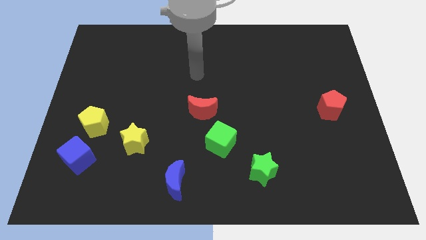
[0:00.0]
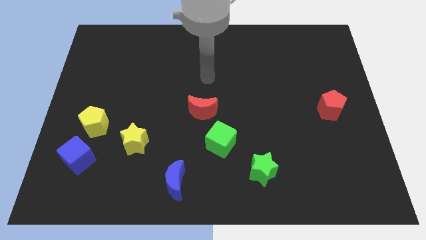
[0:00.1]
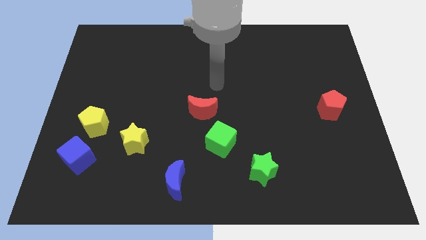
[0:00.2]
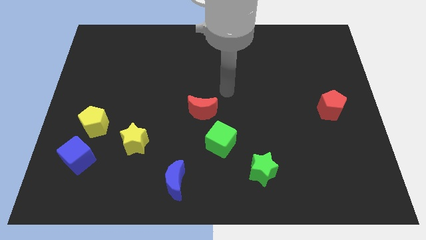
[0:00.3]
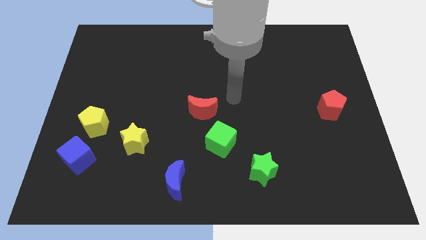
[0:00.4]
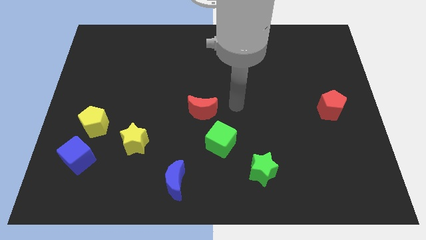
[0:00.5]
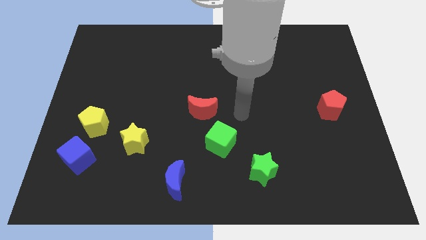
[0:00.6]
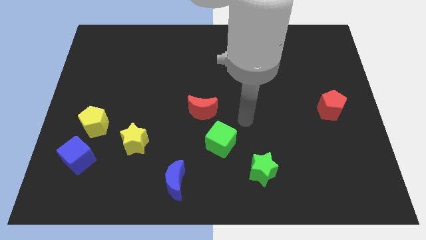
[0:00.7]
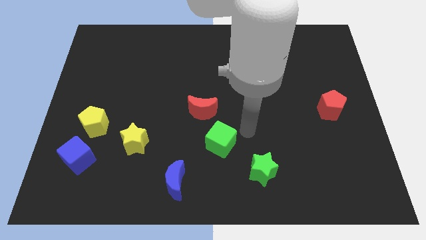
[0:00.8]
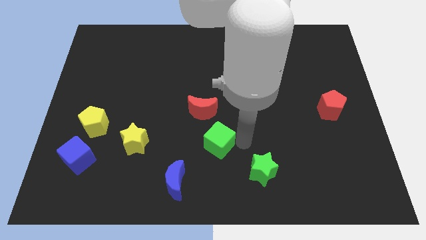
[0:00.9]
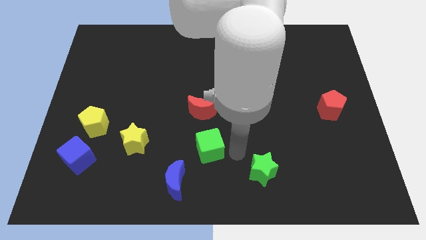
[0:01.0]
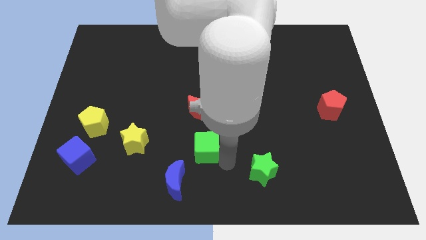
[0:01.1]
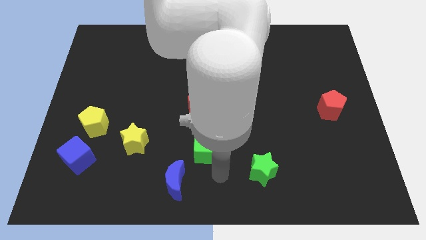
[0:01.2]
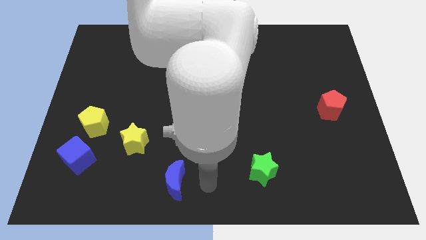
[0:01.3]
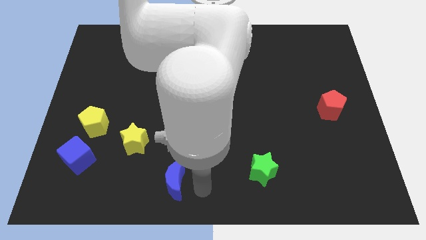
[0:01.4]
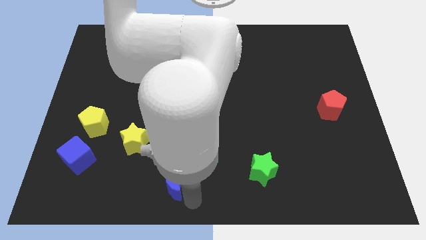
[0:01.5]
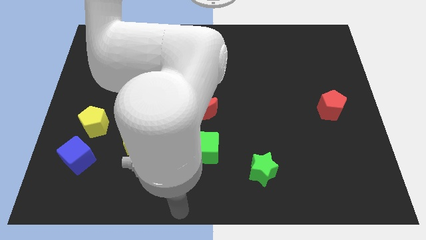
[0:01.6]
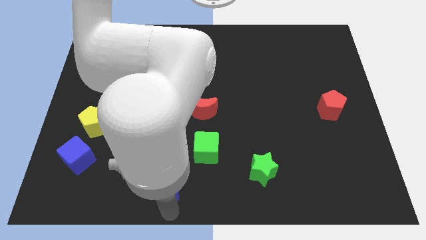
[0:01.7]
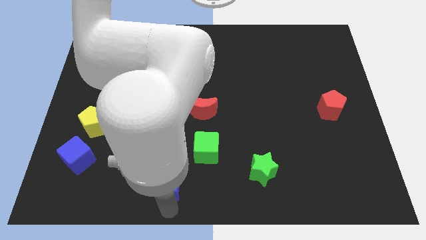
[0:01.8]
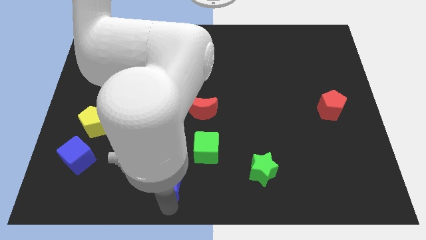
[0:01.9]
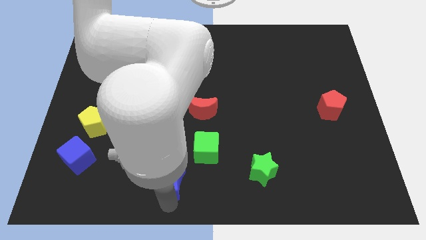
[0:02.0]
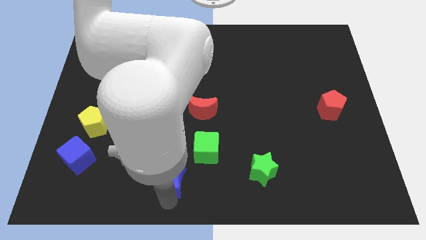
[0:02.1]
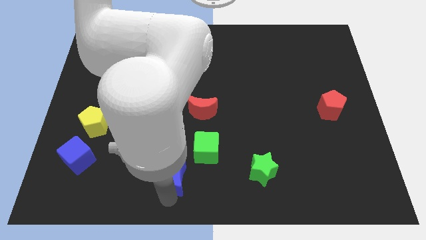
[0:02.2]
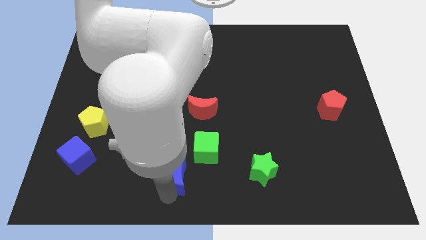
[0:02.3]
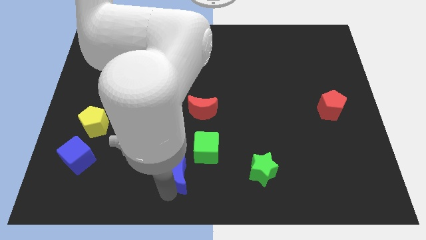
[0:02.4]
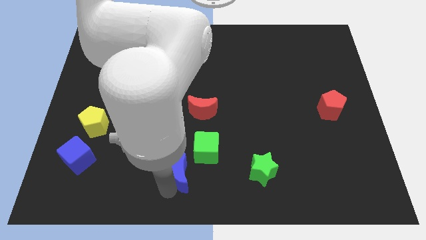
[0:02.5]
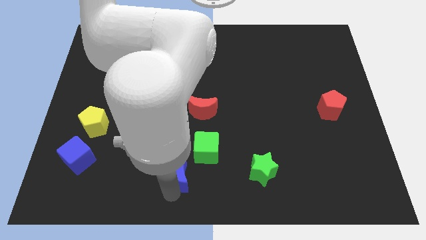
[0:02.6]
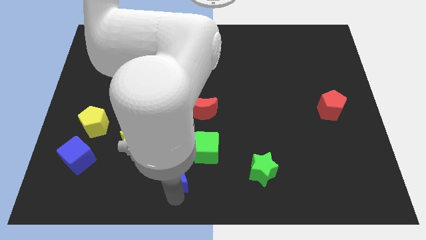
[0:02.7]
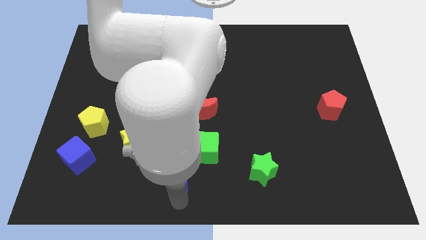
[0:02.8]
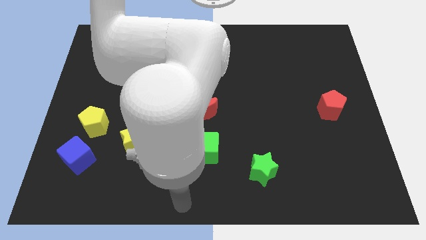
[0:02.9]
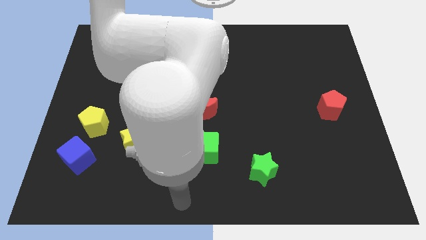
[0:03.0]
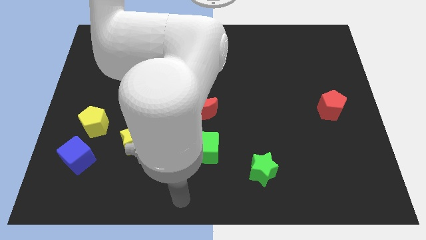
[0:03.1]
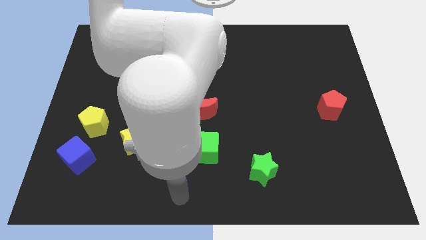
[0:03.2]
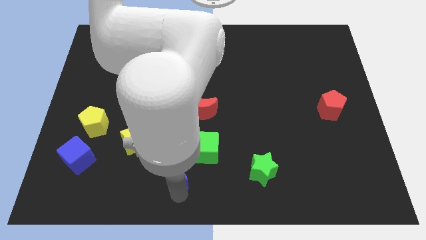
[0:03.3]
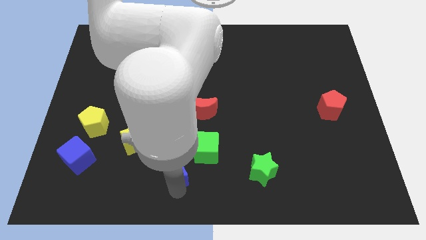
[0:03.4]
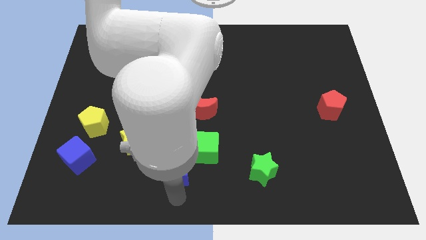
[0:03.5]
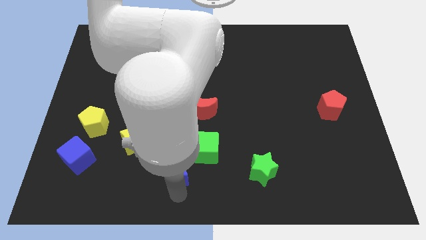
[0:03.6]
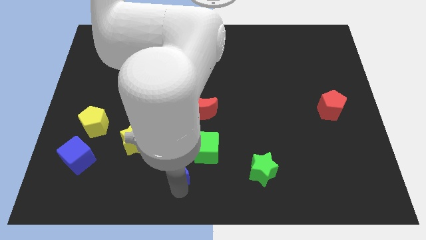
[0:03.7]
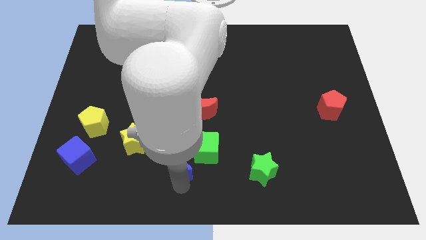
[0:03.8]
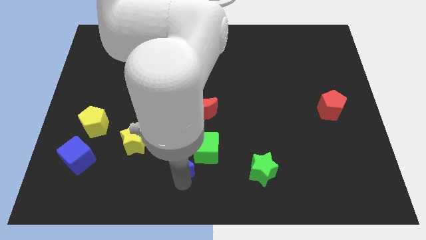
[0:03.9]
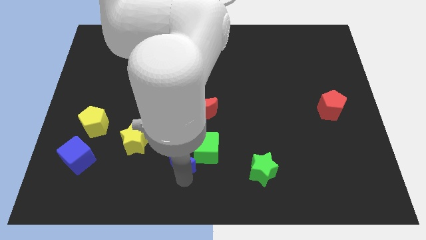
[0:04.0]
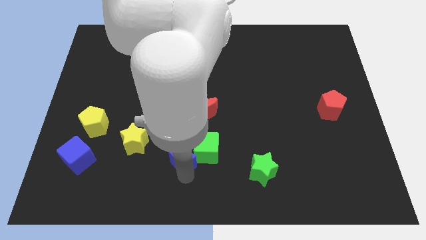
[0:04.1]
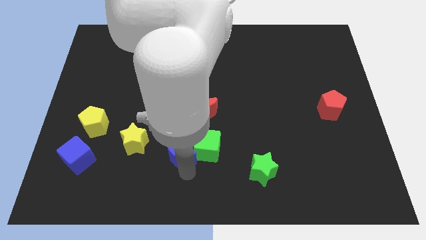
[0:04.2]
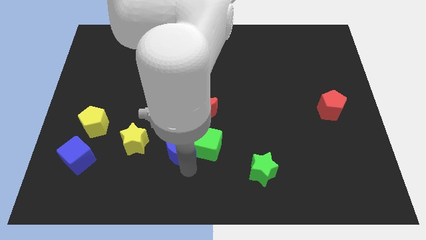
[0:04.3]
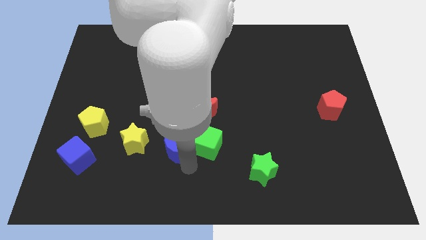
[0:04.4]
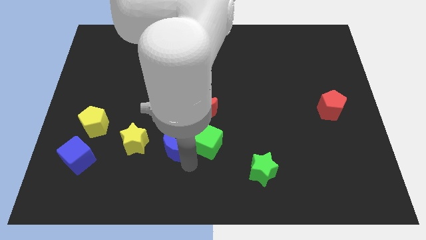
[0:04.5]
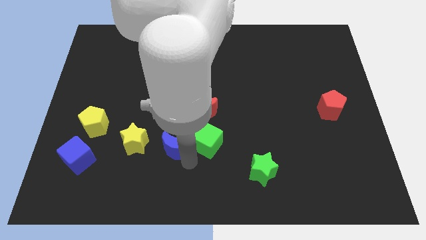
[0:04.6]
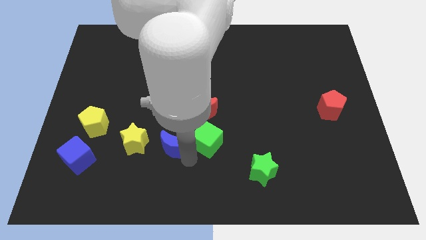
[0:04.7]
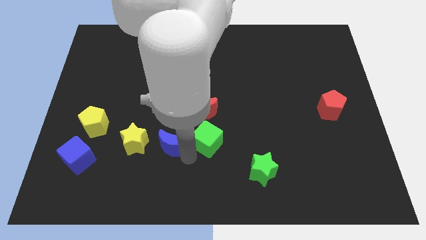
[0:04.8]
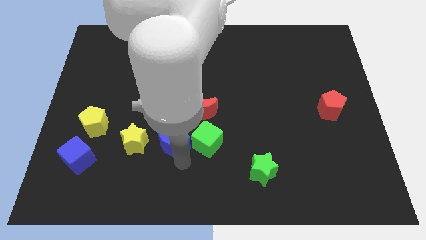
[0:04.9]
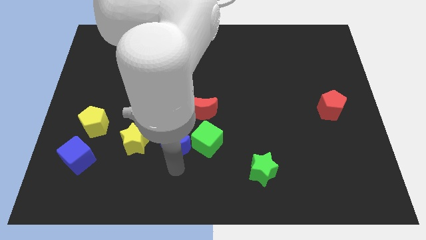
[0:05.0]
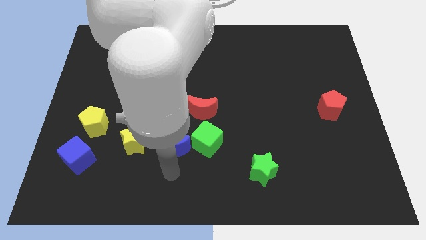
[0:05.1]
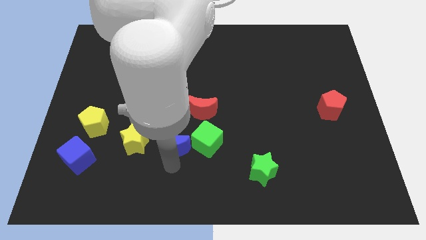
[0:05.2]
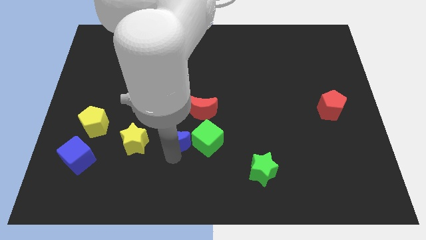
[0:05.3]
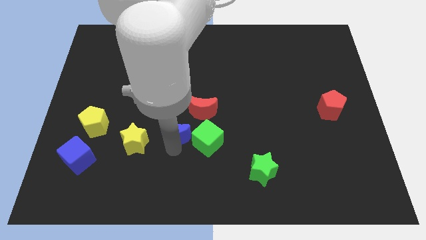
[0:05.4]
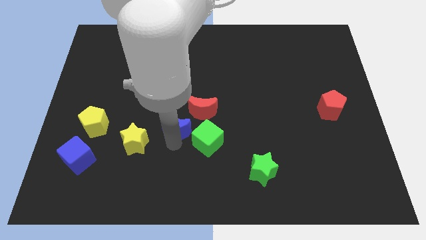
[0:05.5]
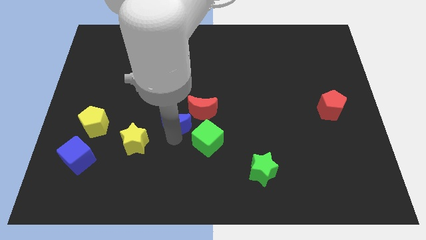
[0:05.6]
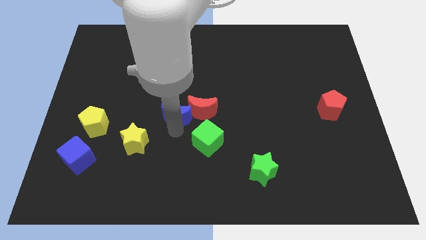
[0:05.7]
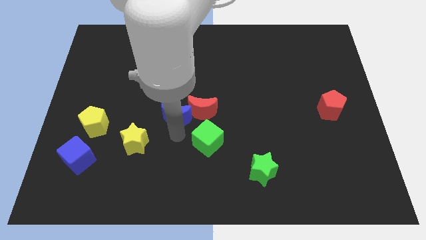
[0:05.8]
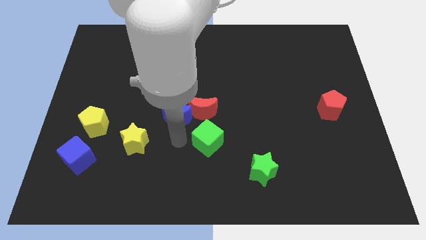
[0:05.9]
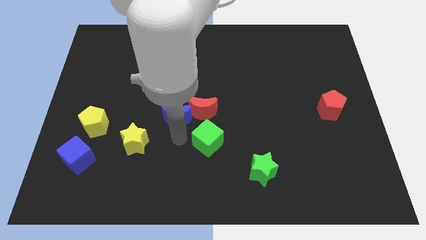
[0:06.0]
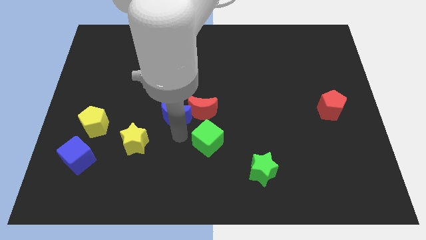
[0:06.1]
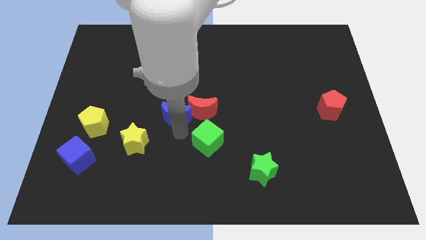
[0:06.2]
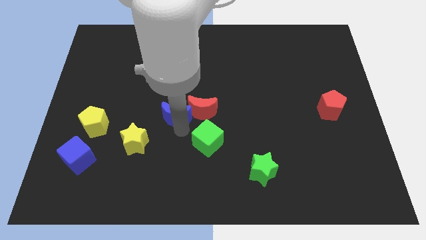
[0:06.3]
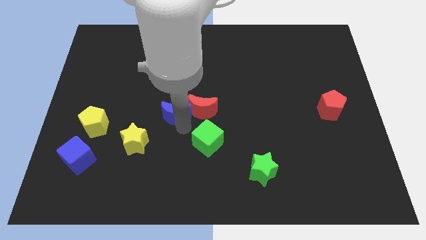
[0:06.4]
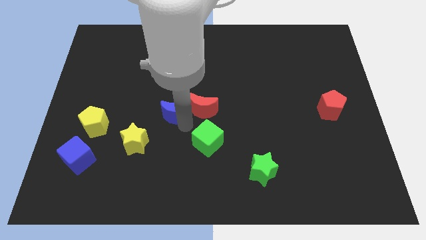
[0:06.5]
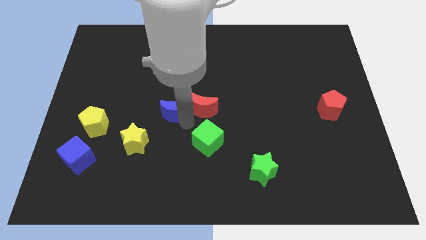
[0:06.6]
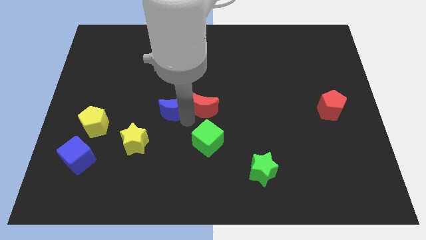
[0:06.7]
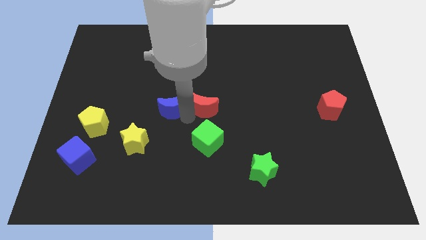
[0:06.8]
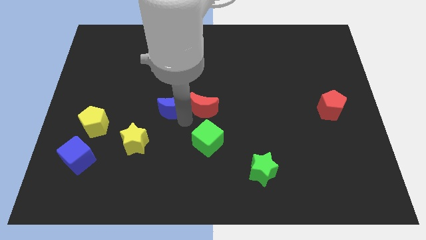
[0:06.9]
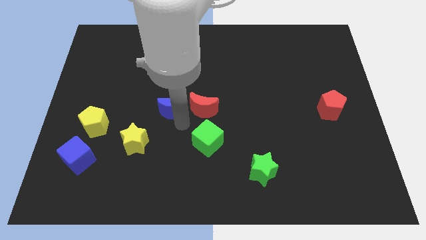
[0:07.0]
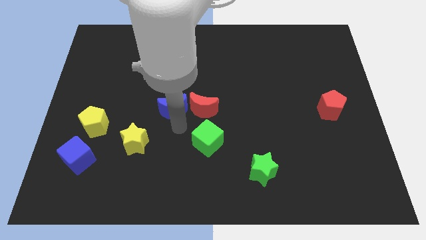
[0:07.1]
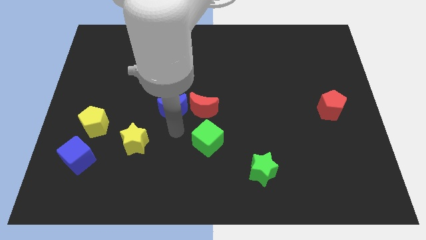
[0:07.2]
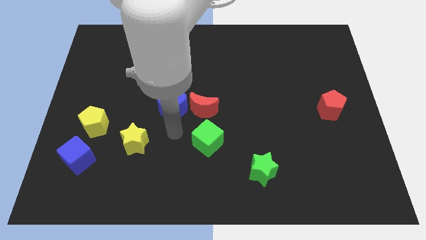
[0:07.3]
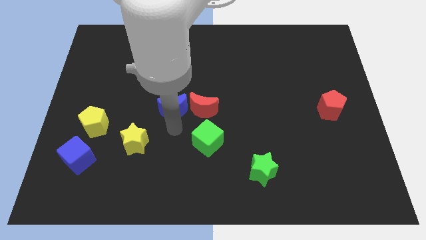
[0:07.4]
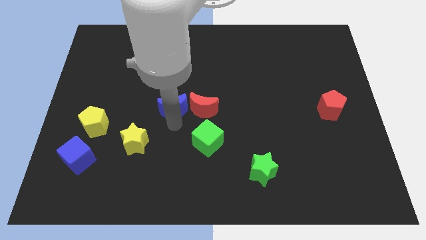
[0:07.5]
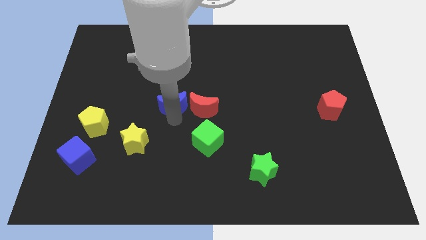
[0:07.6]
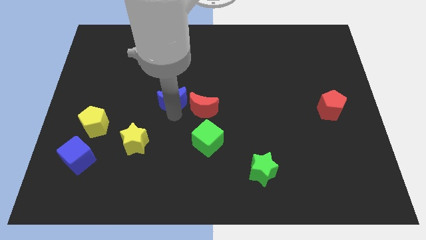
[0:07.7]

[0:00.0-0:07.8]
push the blue moon upwards

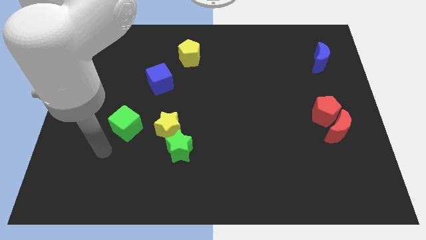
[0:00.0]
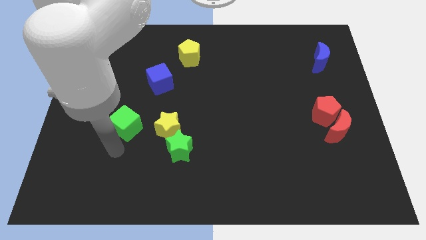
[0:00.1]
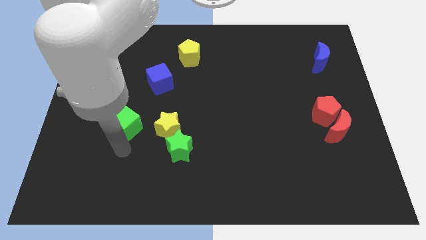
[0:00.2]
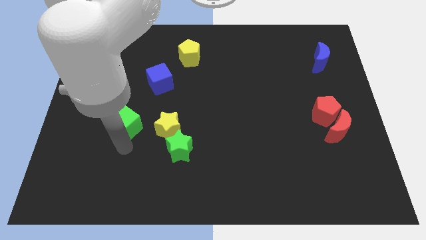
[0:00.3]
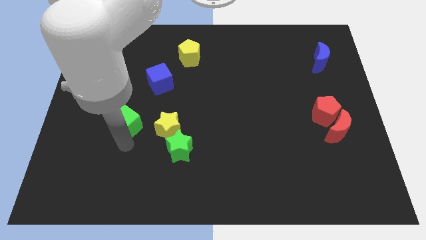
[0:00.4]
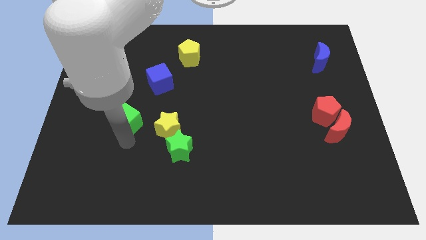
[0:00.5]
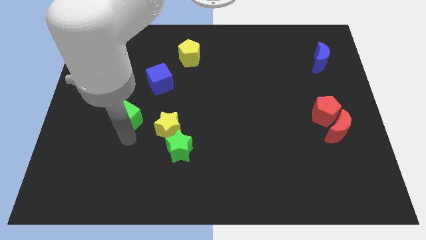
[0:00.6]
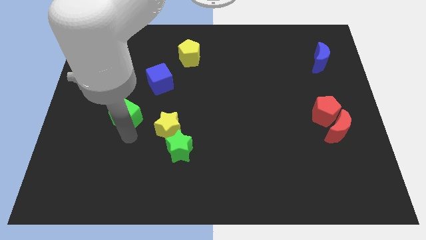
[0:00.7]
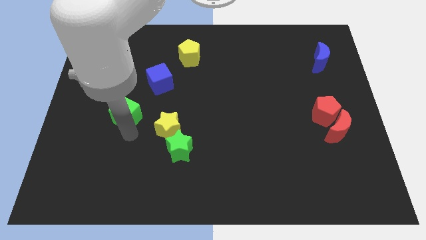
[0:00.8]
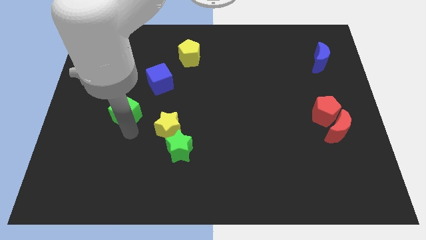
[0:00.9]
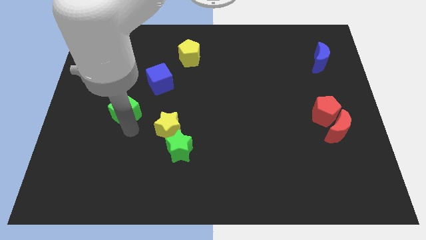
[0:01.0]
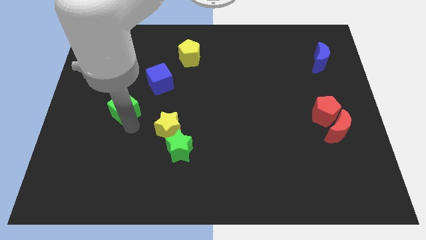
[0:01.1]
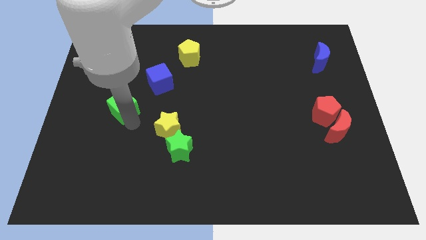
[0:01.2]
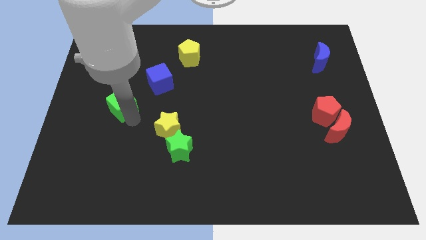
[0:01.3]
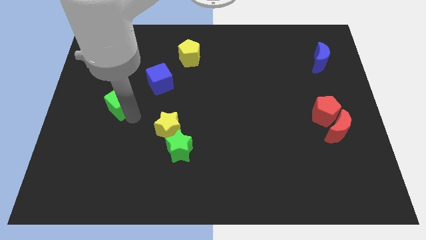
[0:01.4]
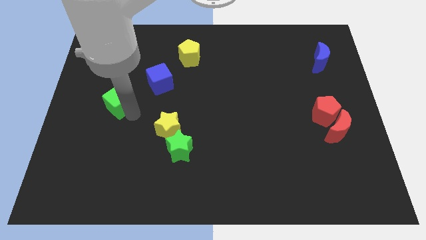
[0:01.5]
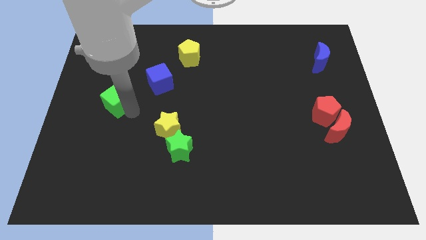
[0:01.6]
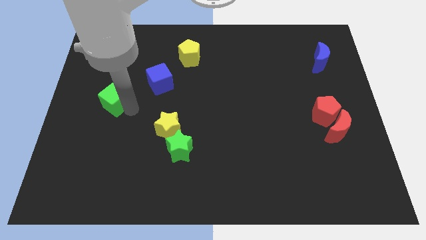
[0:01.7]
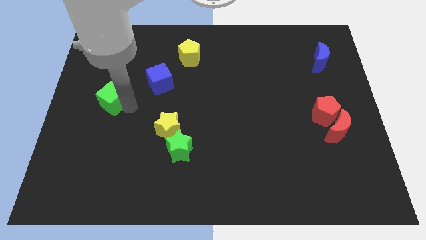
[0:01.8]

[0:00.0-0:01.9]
move the green cube up somewhat
